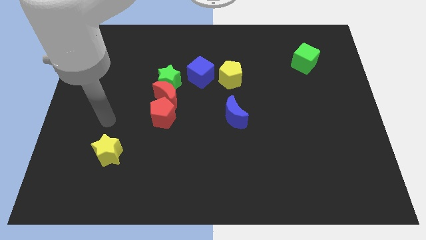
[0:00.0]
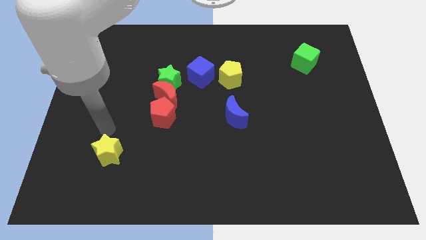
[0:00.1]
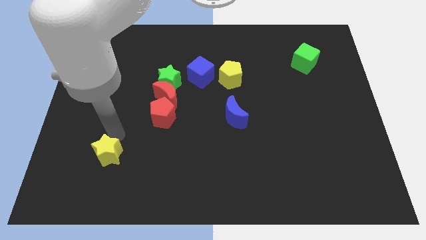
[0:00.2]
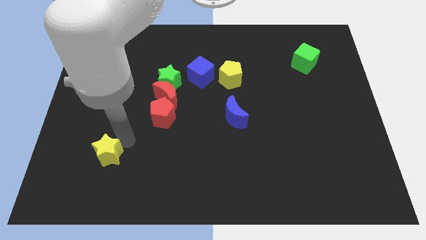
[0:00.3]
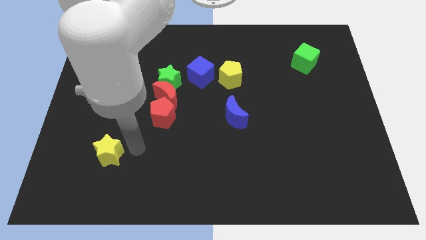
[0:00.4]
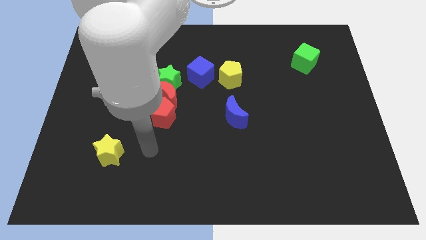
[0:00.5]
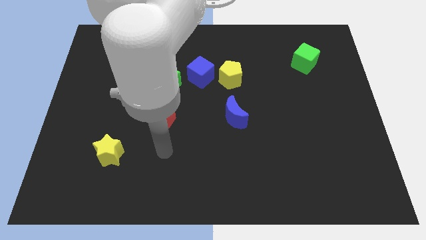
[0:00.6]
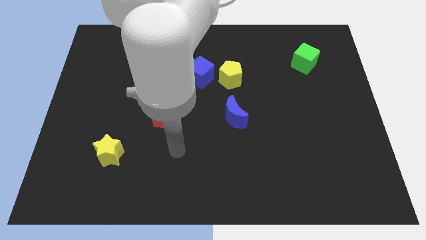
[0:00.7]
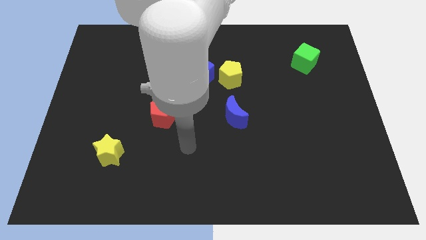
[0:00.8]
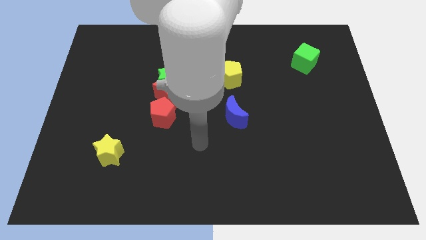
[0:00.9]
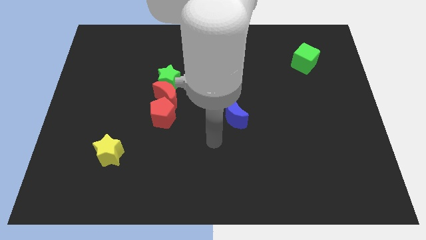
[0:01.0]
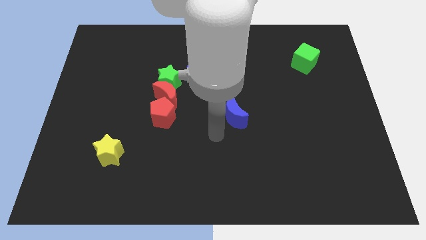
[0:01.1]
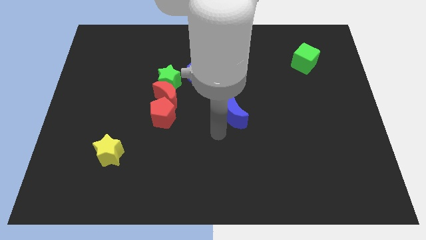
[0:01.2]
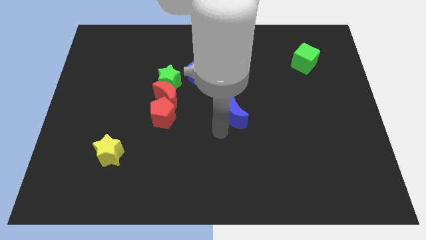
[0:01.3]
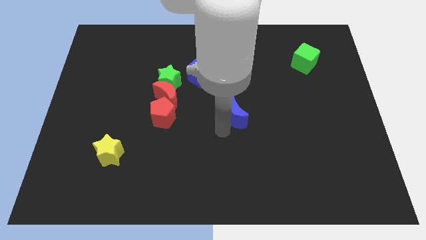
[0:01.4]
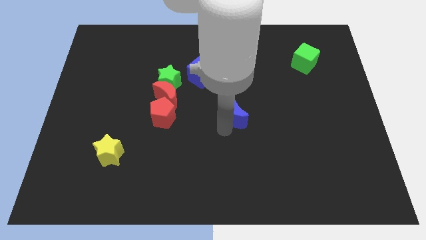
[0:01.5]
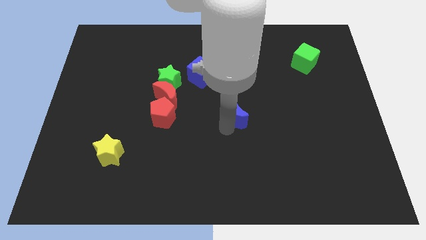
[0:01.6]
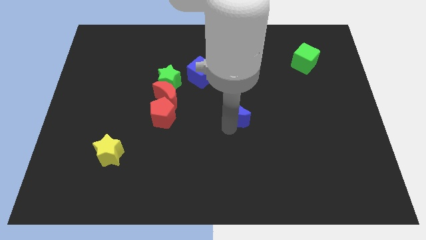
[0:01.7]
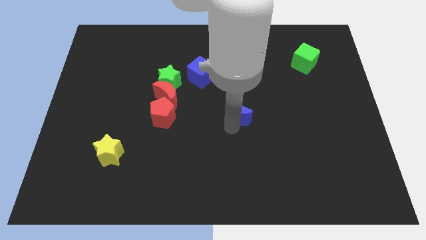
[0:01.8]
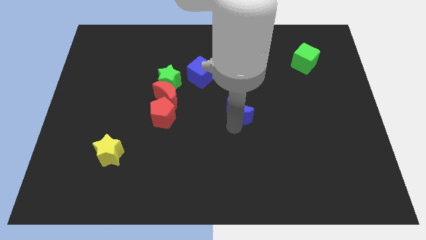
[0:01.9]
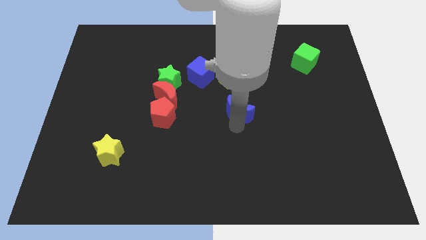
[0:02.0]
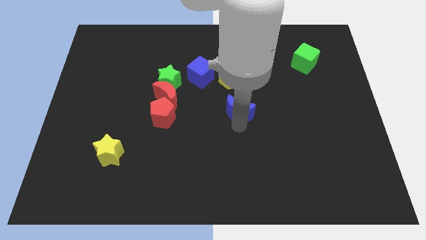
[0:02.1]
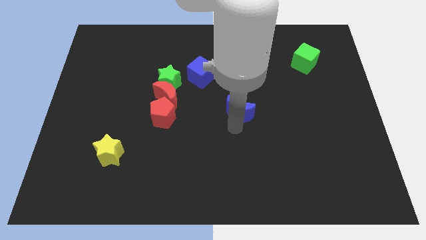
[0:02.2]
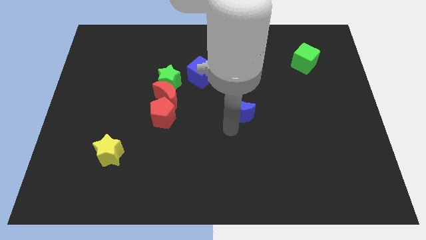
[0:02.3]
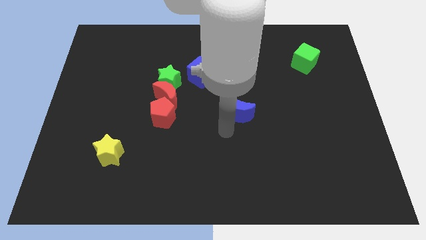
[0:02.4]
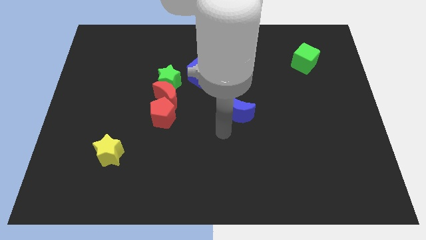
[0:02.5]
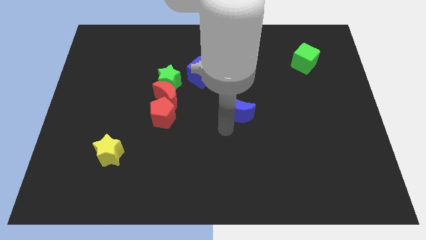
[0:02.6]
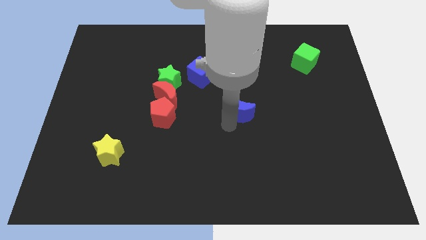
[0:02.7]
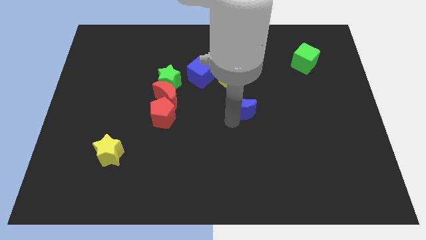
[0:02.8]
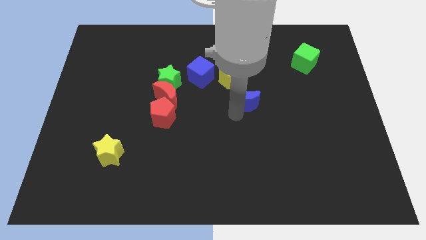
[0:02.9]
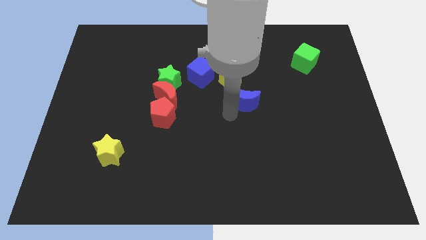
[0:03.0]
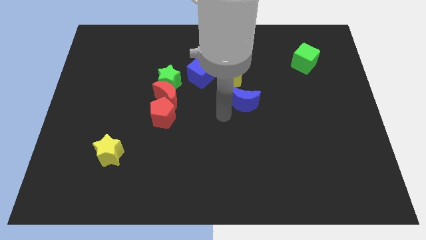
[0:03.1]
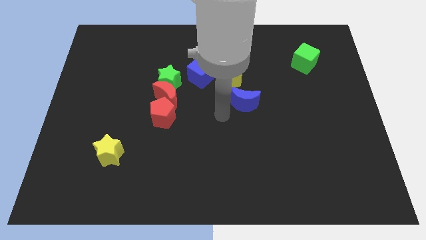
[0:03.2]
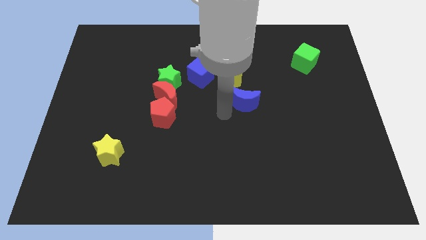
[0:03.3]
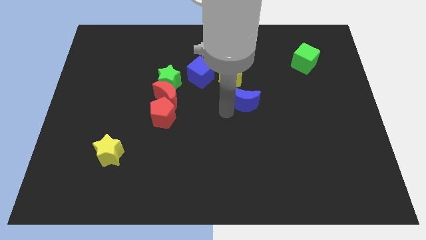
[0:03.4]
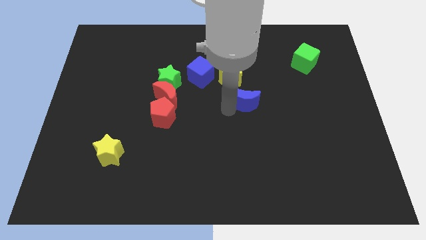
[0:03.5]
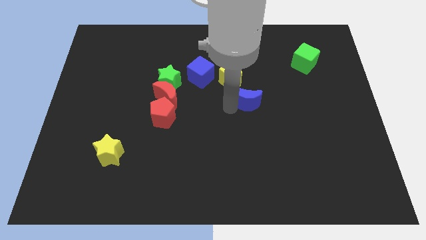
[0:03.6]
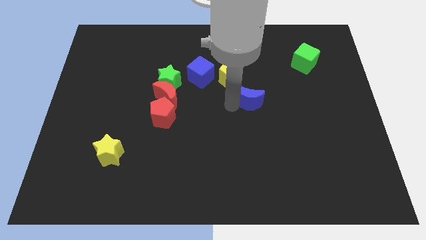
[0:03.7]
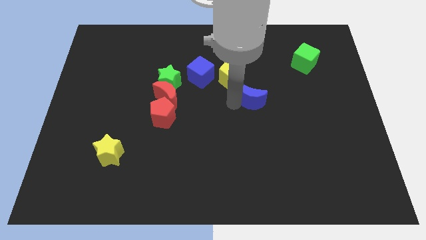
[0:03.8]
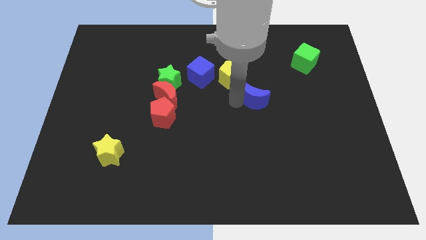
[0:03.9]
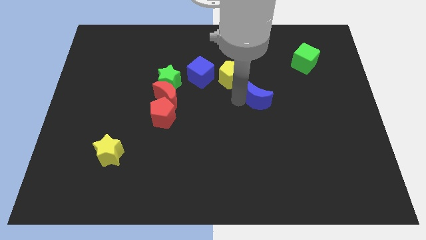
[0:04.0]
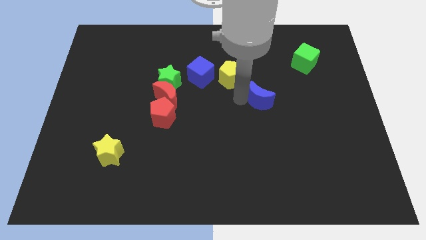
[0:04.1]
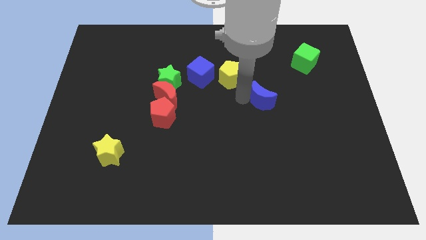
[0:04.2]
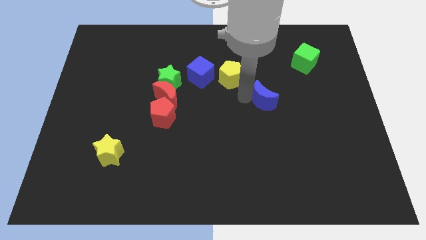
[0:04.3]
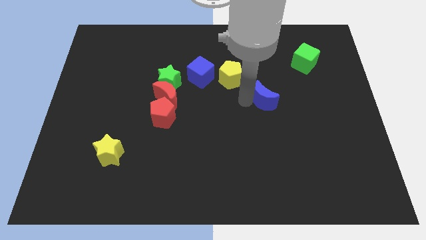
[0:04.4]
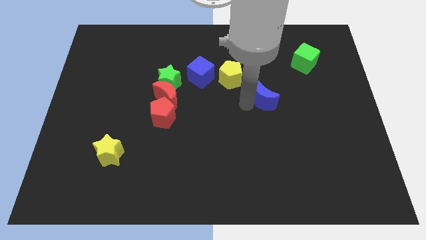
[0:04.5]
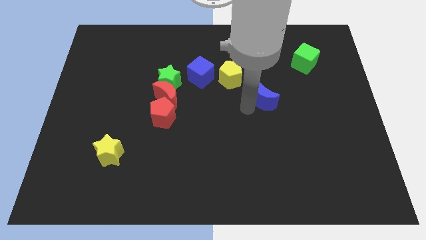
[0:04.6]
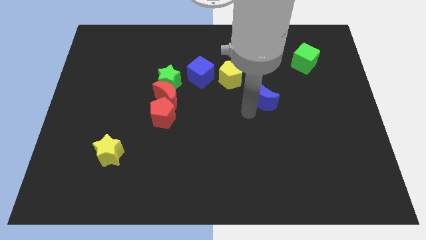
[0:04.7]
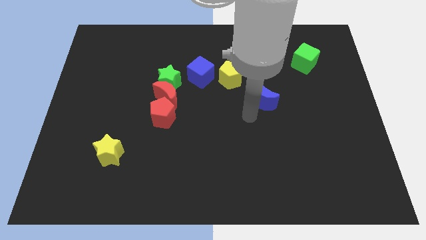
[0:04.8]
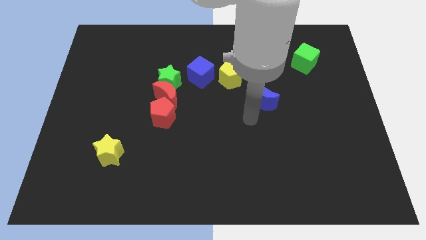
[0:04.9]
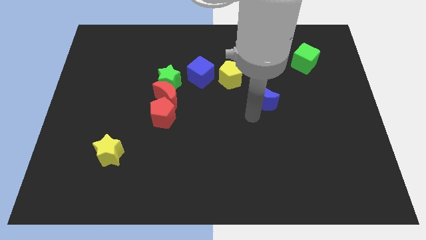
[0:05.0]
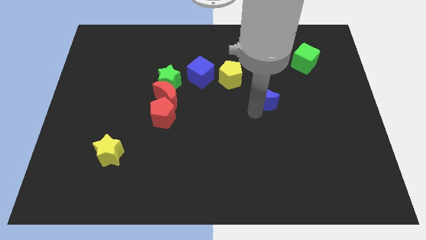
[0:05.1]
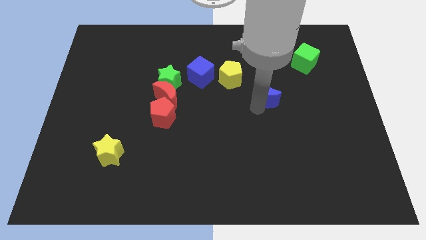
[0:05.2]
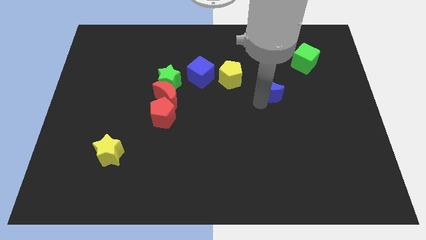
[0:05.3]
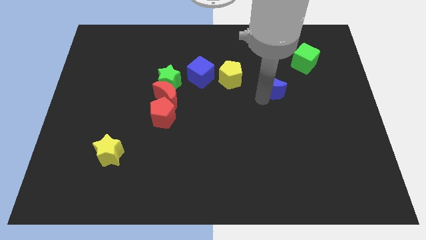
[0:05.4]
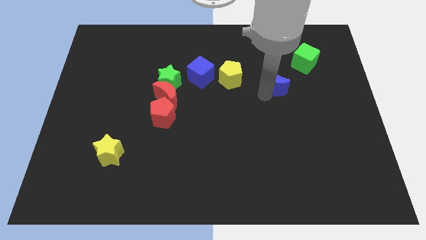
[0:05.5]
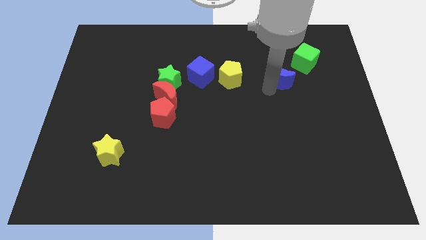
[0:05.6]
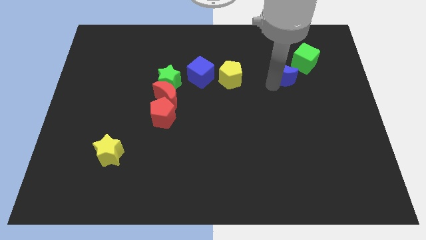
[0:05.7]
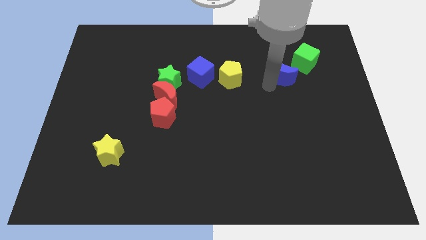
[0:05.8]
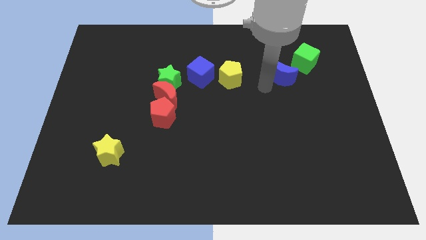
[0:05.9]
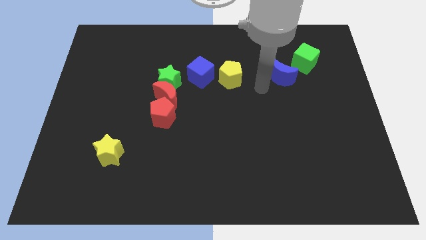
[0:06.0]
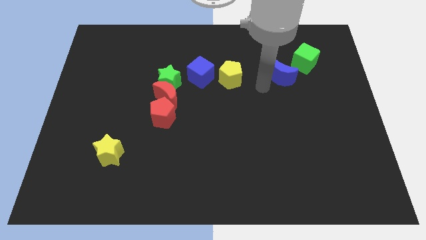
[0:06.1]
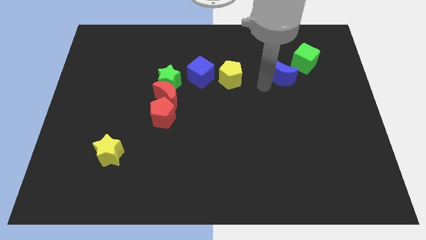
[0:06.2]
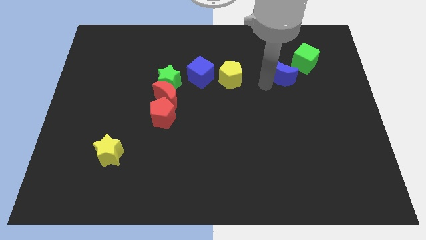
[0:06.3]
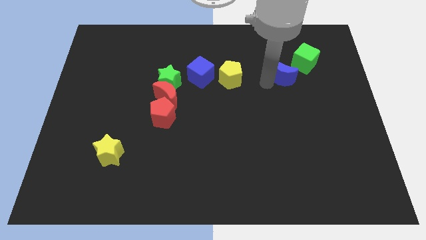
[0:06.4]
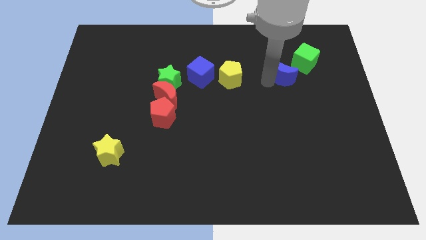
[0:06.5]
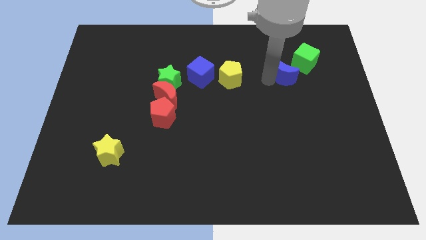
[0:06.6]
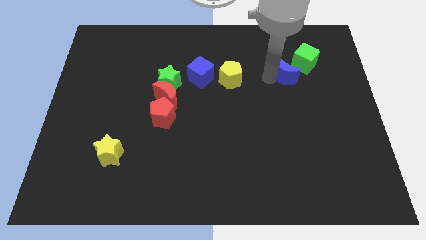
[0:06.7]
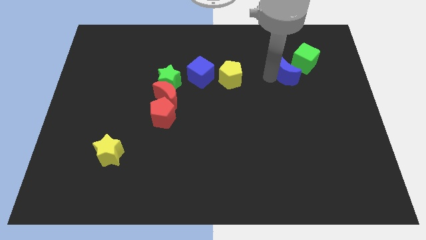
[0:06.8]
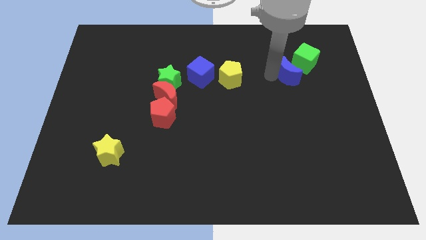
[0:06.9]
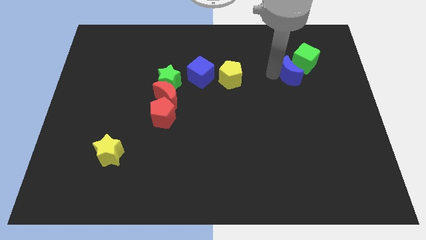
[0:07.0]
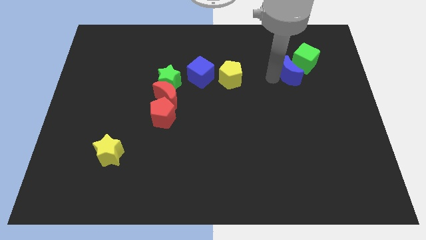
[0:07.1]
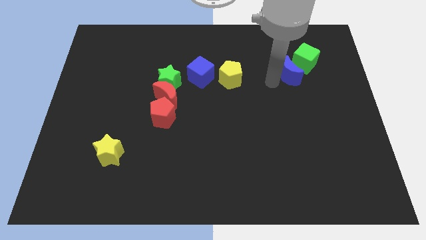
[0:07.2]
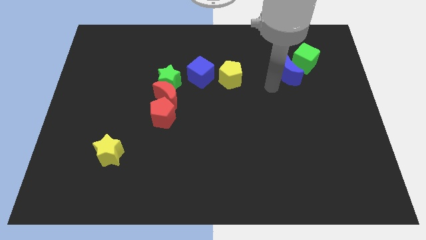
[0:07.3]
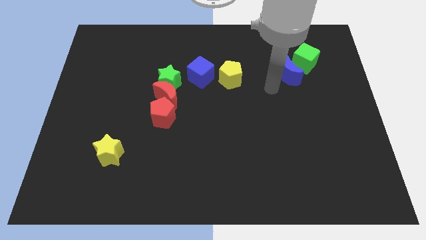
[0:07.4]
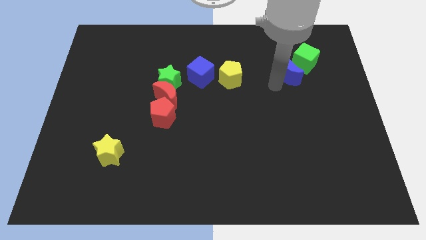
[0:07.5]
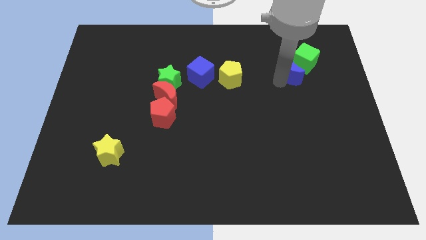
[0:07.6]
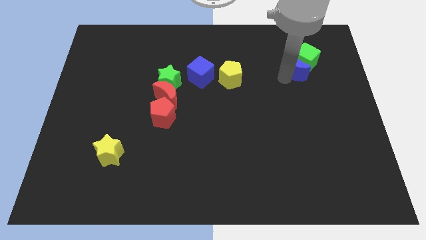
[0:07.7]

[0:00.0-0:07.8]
push the blue moon towards the green cube
